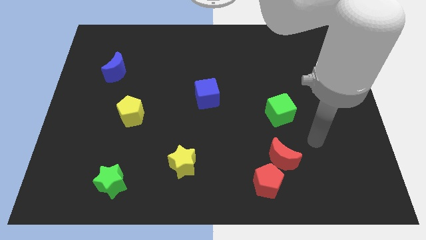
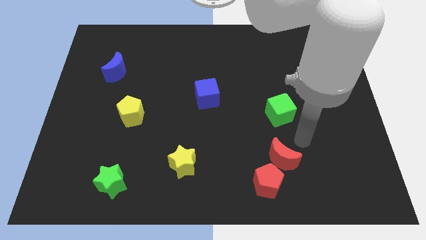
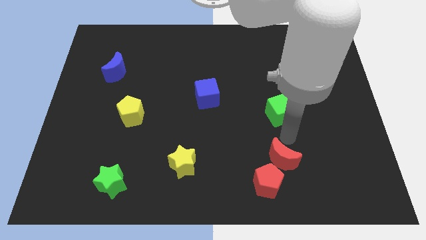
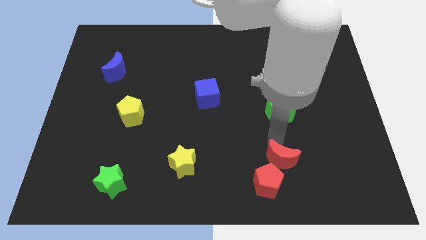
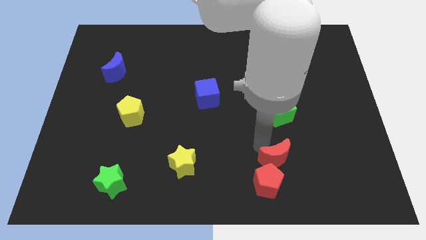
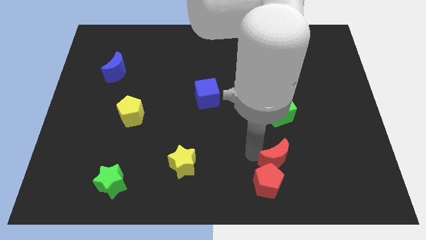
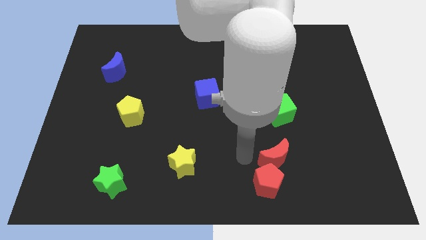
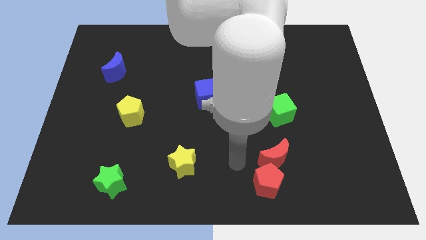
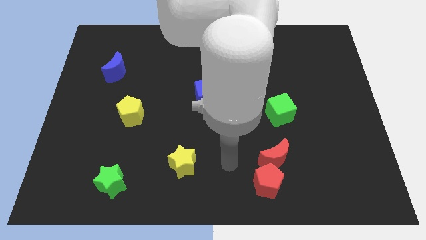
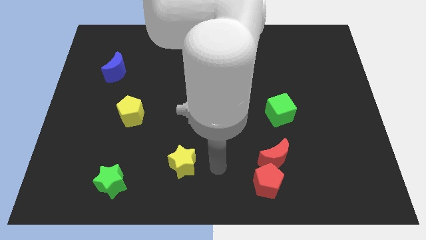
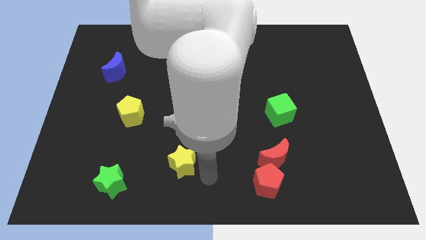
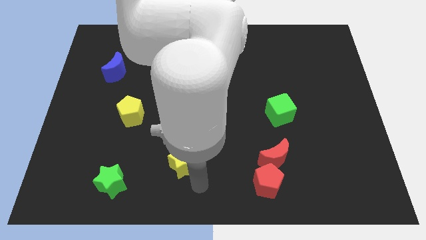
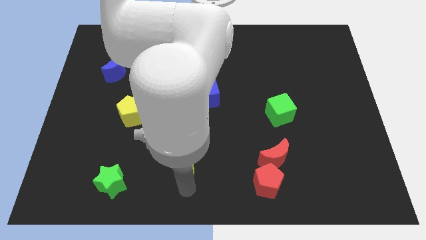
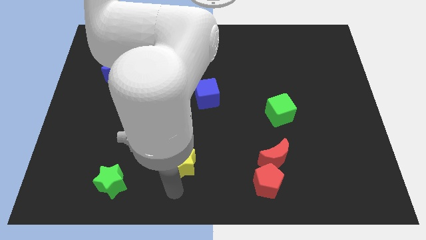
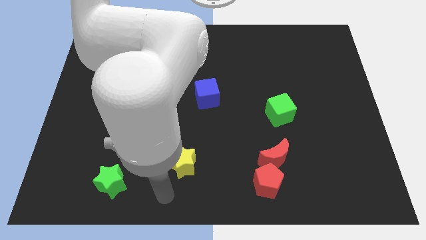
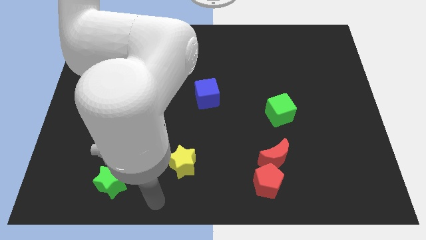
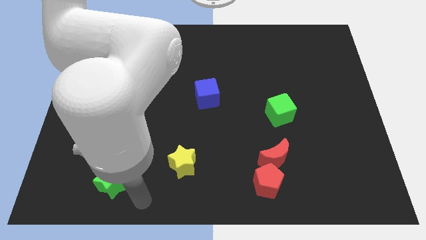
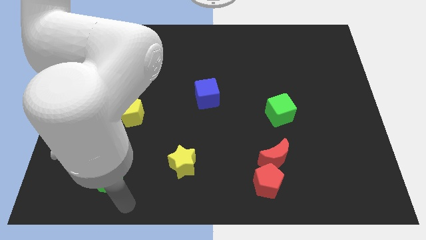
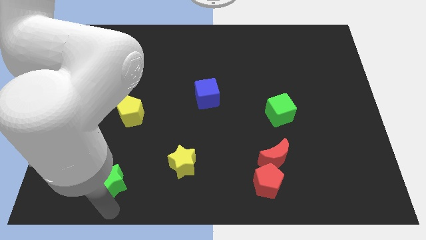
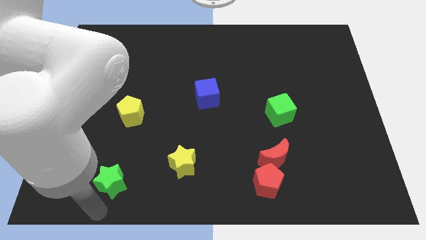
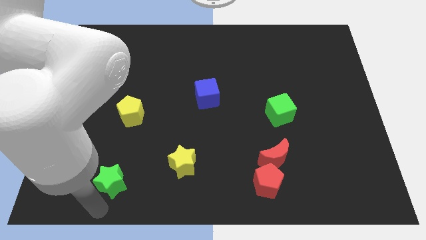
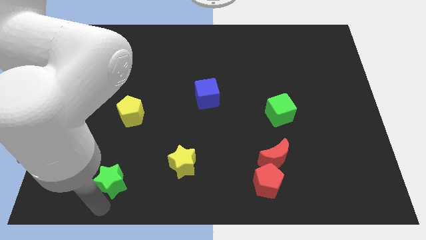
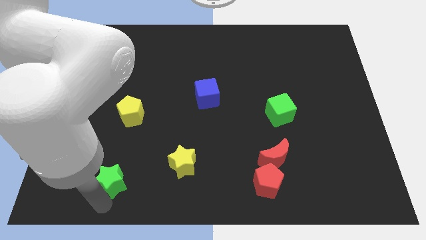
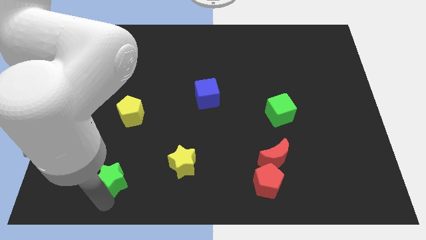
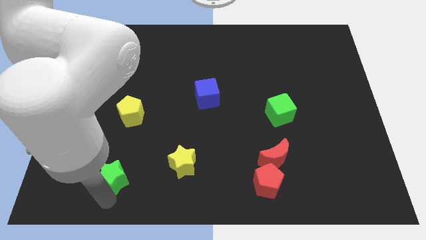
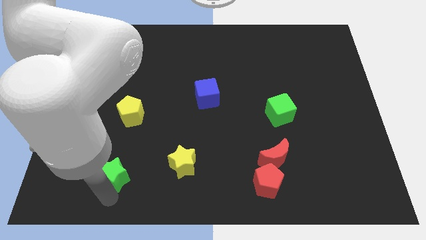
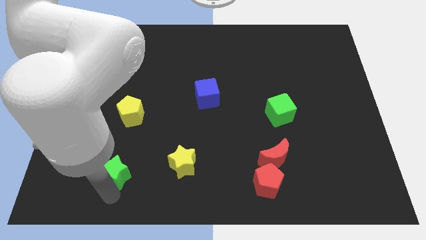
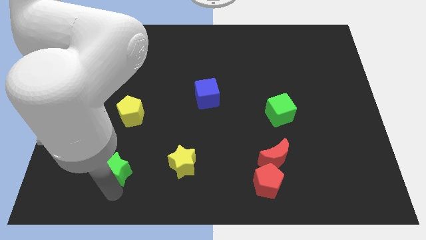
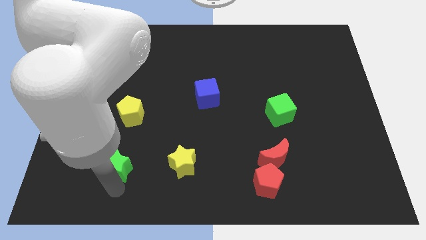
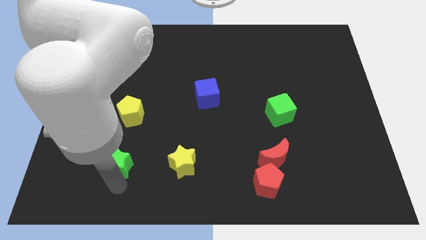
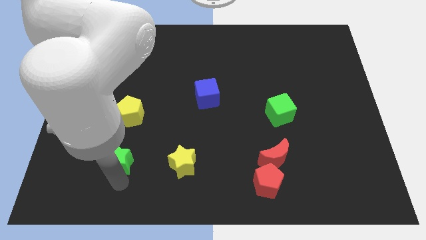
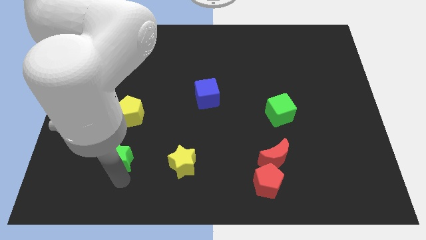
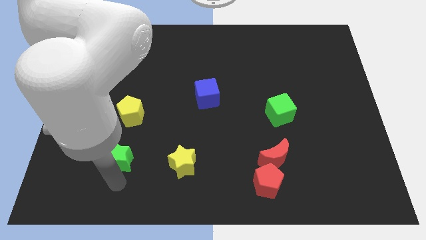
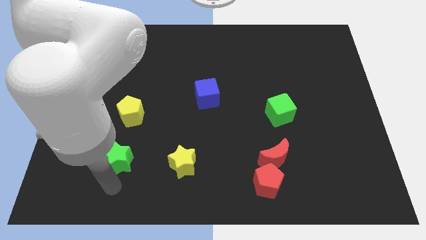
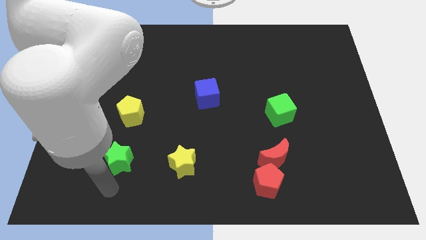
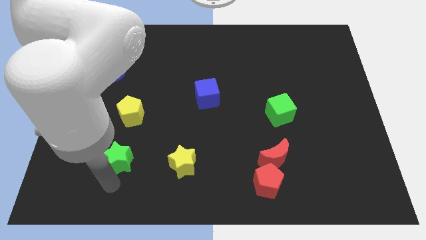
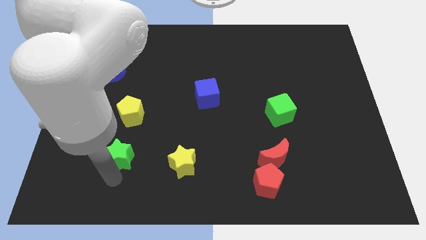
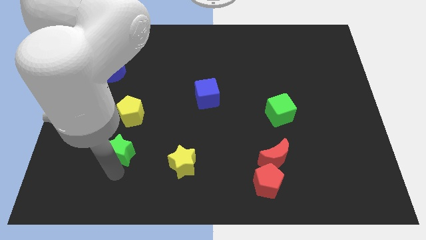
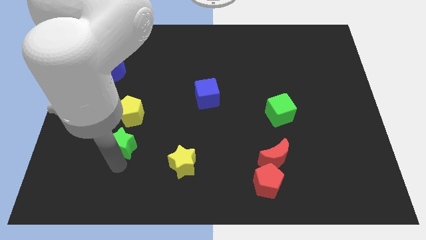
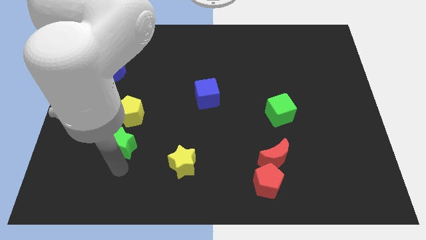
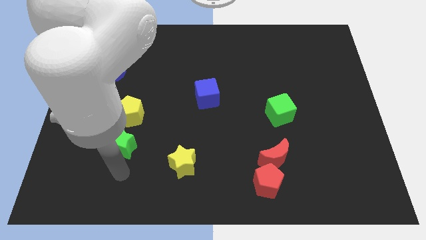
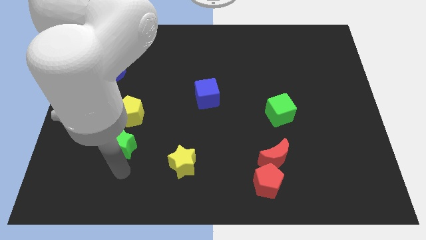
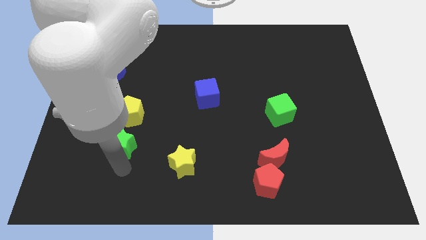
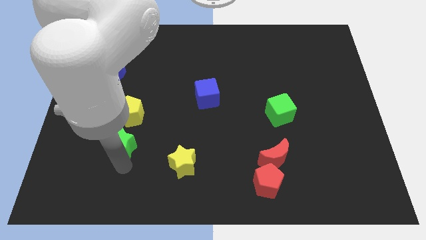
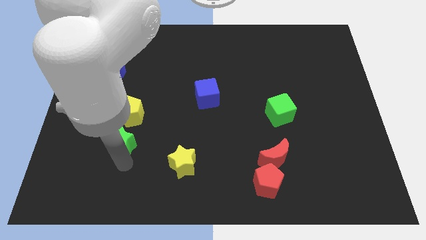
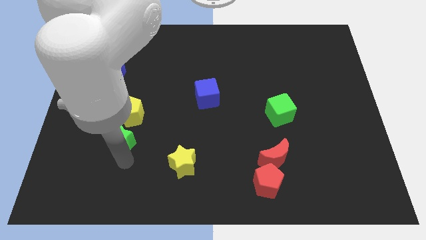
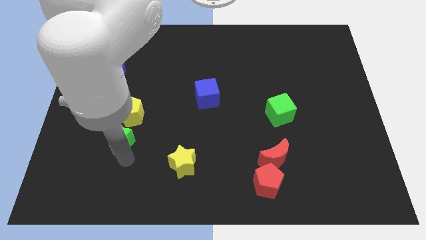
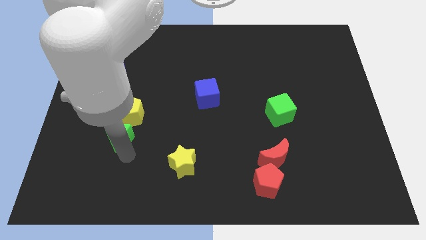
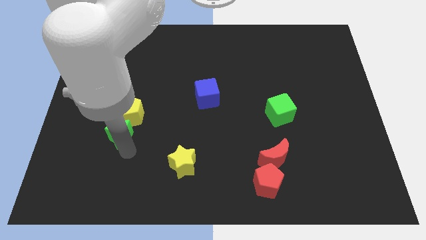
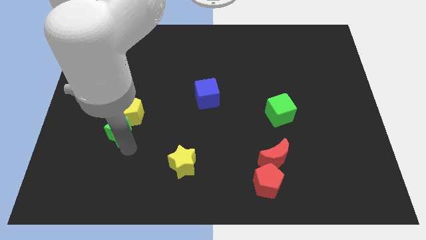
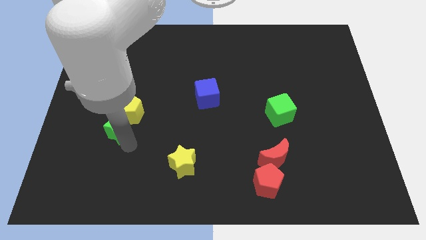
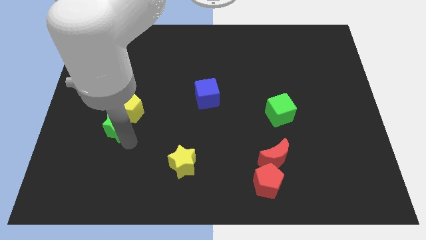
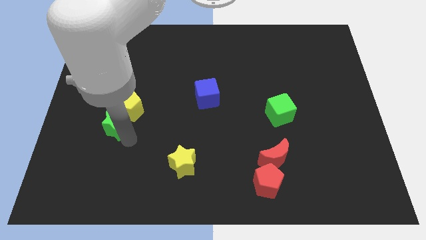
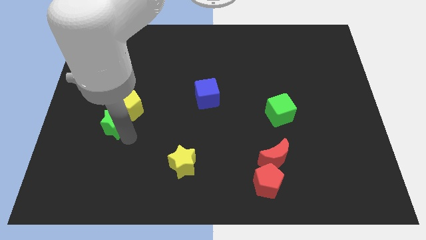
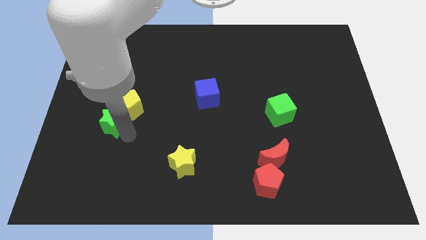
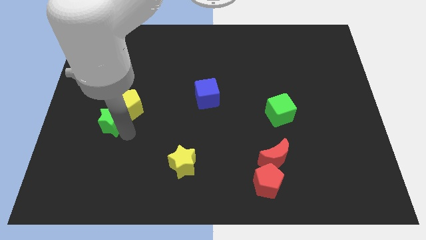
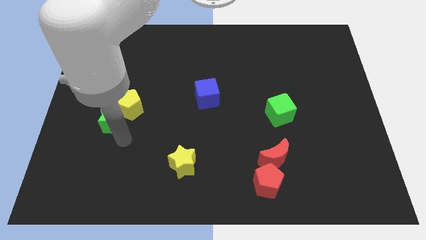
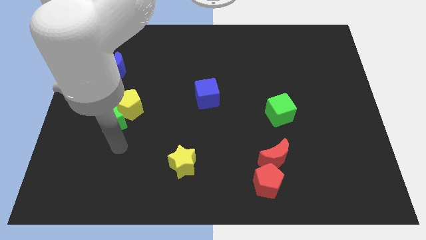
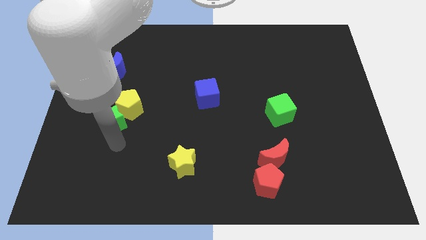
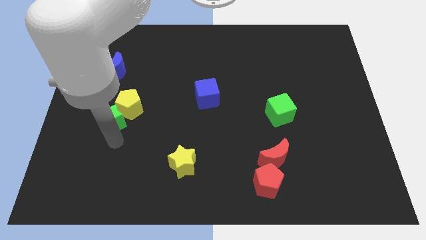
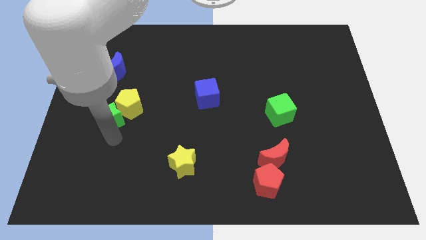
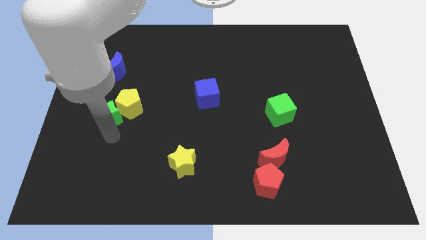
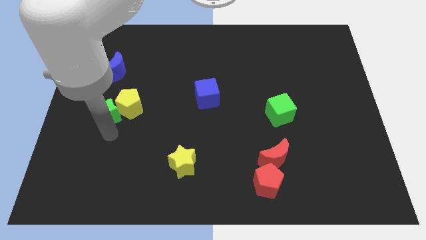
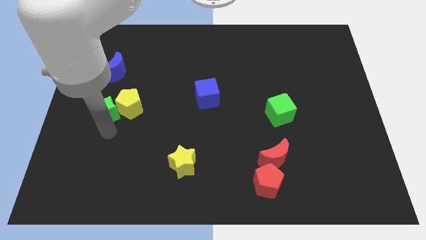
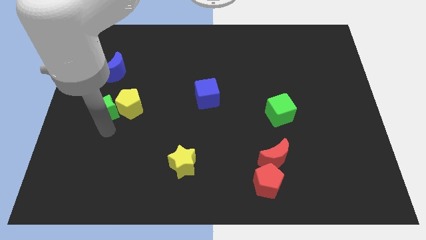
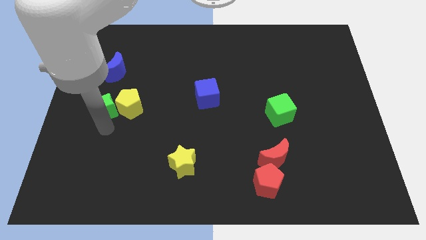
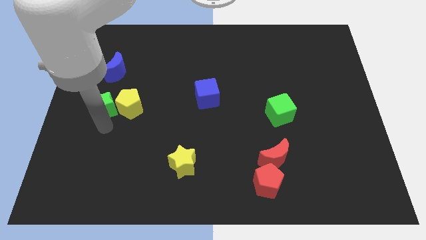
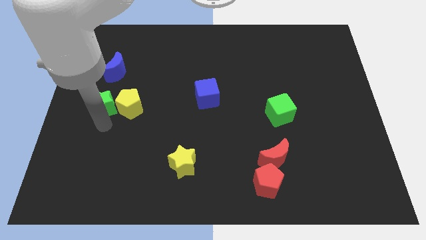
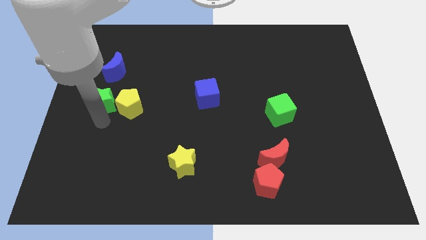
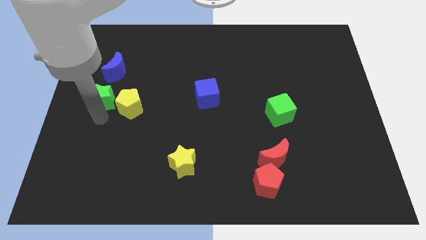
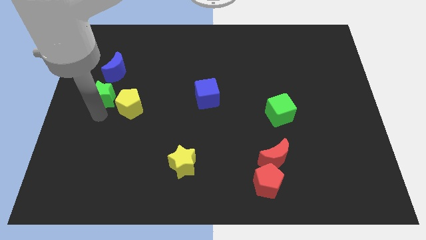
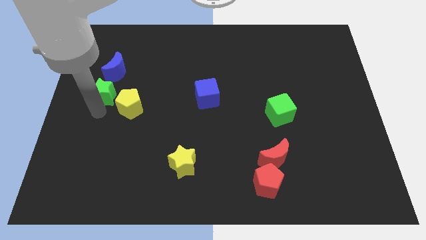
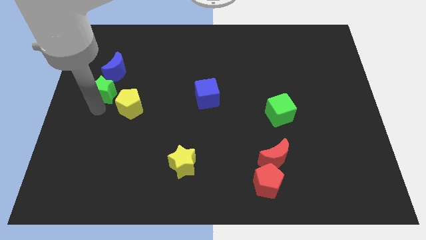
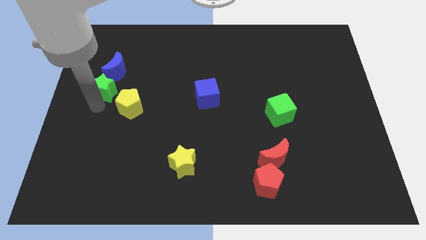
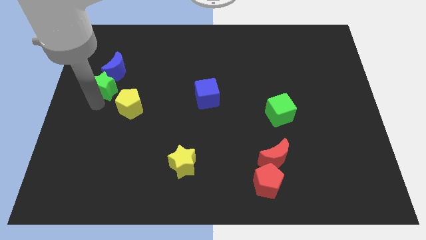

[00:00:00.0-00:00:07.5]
push the green star towards the blue moon
